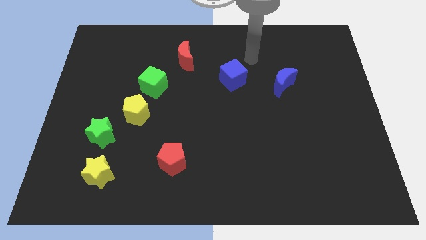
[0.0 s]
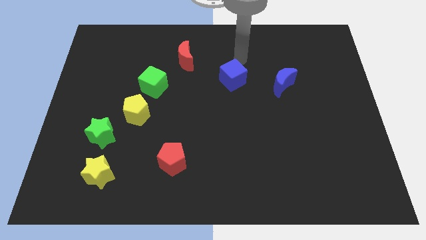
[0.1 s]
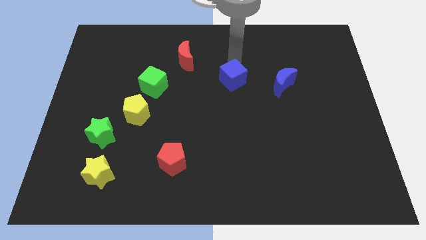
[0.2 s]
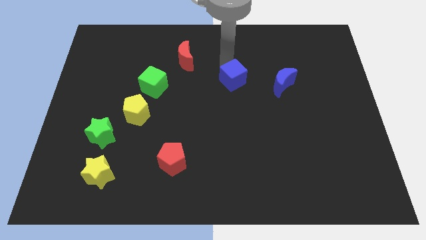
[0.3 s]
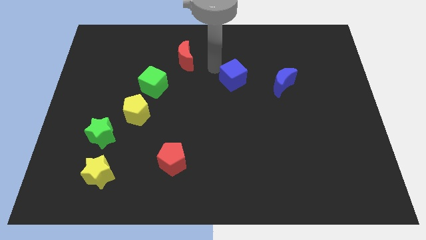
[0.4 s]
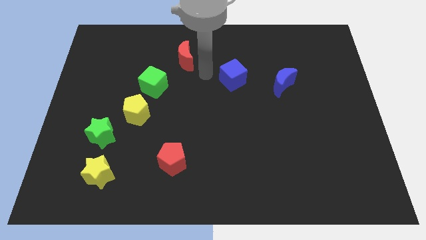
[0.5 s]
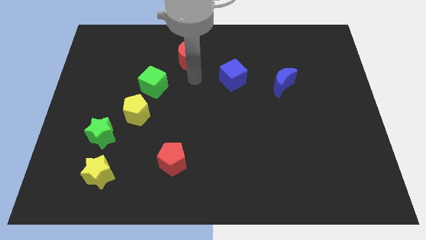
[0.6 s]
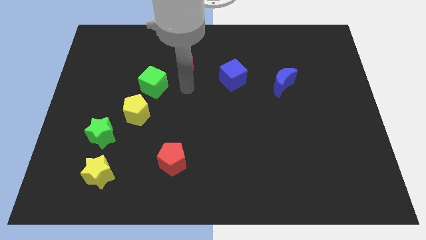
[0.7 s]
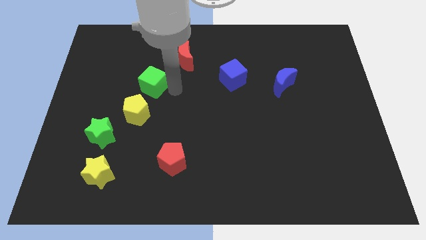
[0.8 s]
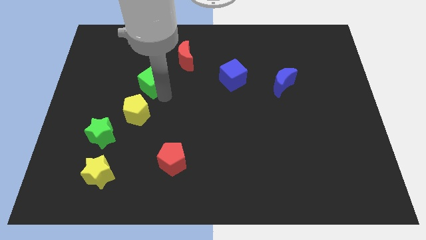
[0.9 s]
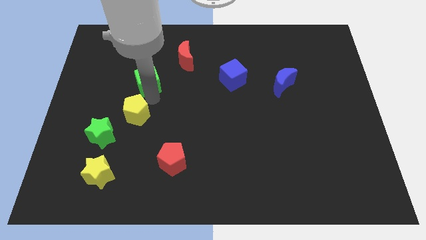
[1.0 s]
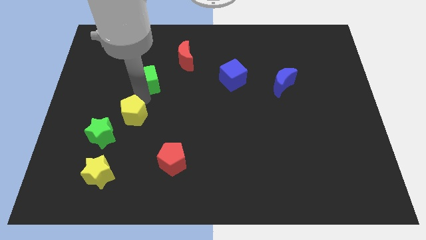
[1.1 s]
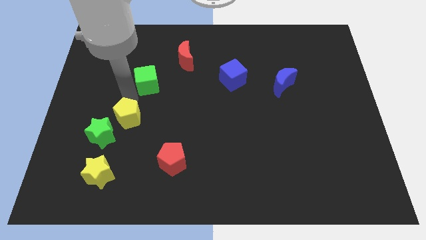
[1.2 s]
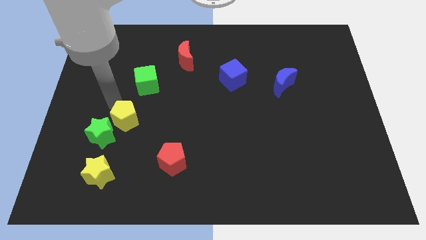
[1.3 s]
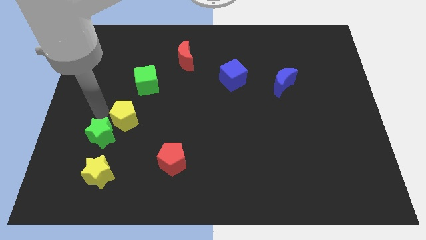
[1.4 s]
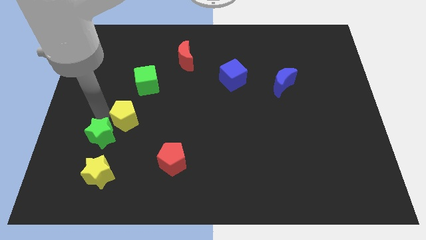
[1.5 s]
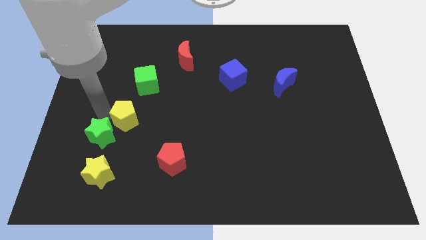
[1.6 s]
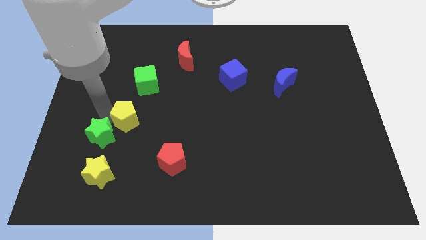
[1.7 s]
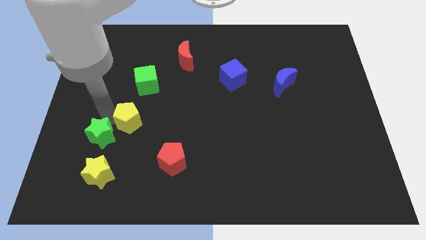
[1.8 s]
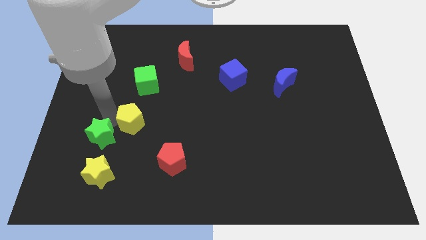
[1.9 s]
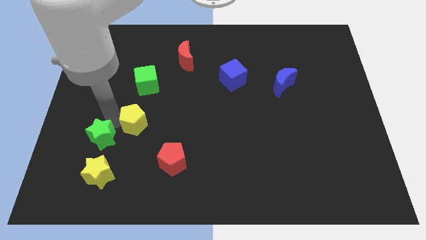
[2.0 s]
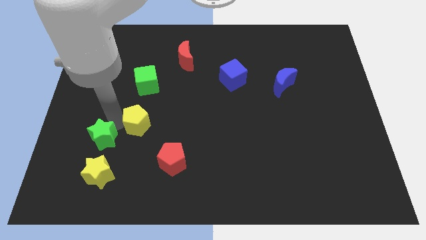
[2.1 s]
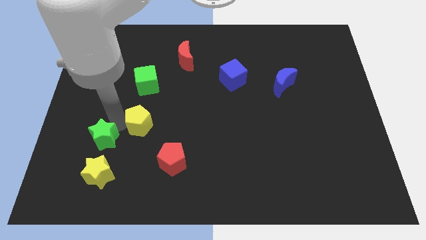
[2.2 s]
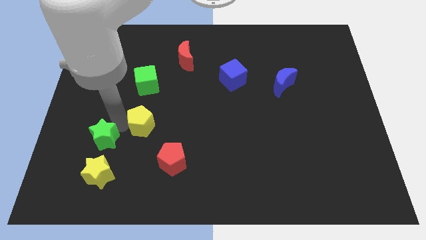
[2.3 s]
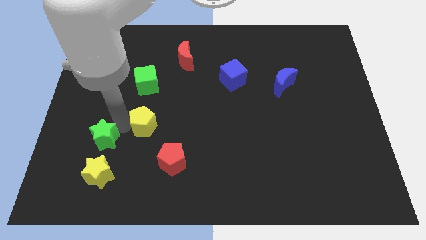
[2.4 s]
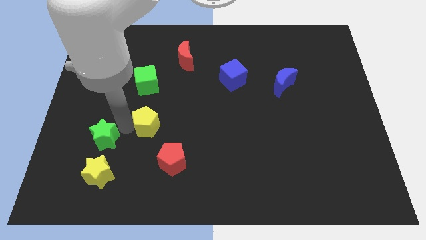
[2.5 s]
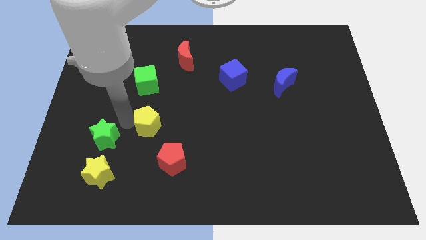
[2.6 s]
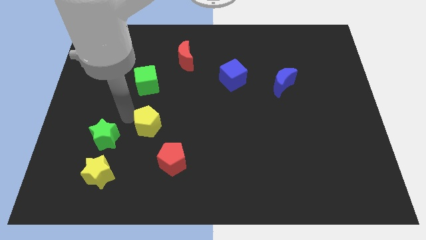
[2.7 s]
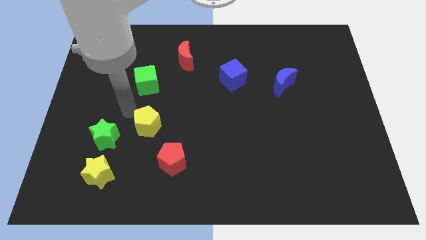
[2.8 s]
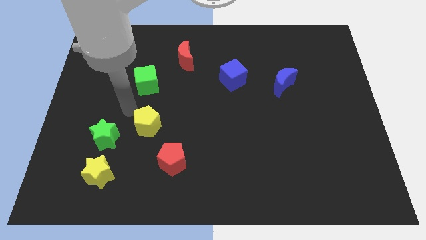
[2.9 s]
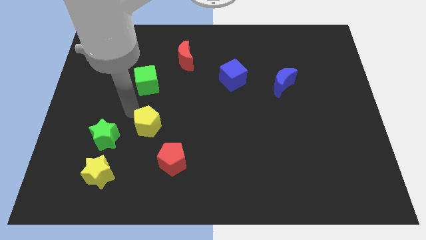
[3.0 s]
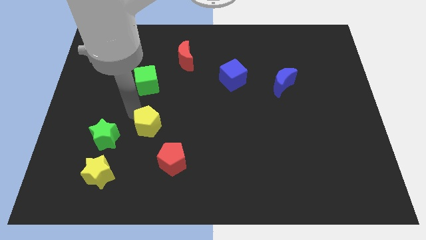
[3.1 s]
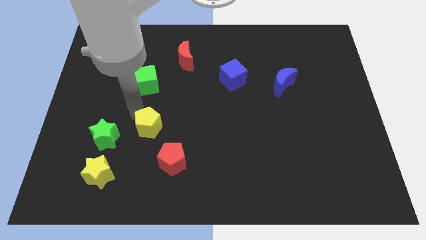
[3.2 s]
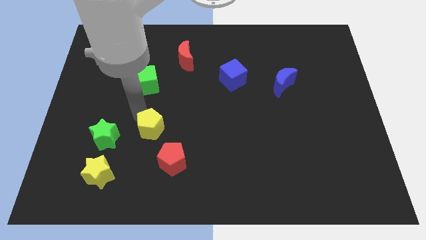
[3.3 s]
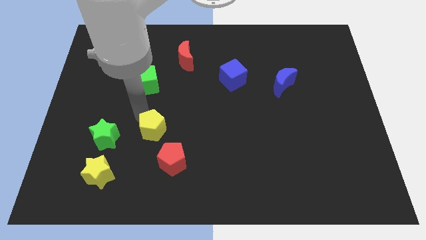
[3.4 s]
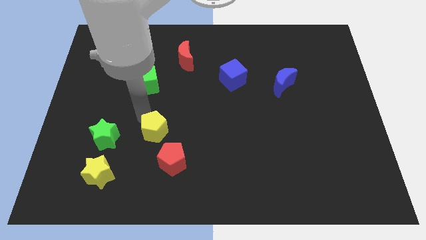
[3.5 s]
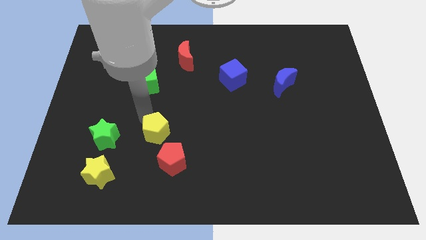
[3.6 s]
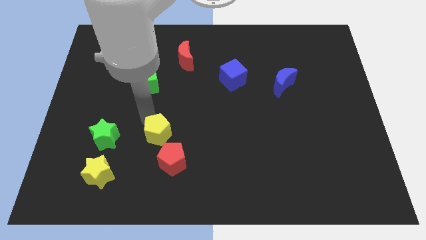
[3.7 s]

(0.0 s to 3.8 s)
separate the yellow pentagon from the green star and green cube

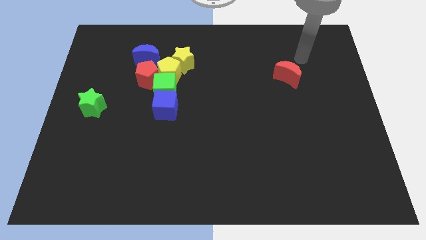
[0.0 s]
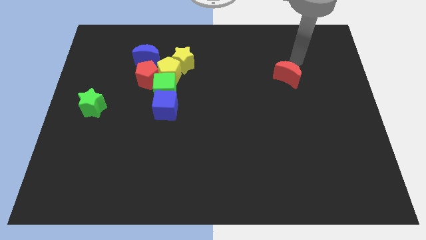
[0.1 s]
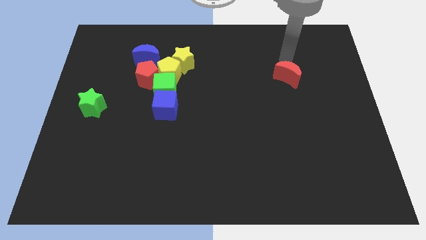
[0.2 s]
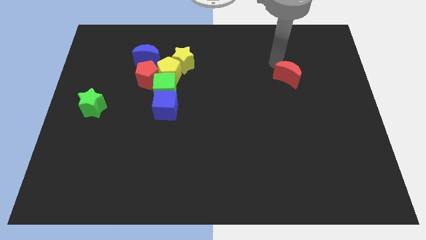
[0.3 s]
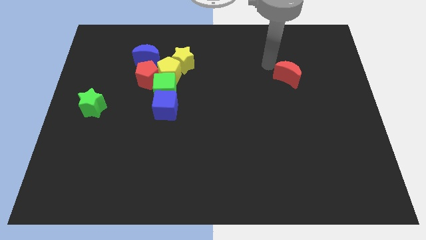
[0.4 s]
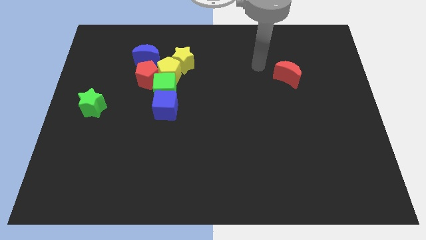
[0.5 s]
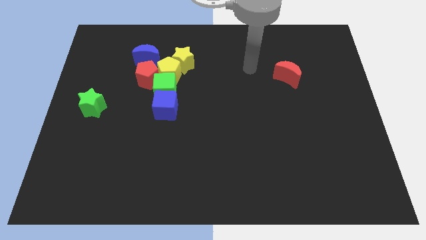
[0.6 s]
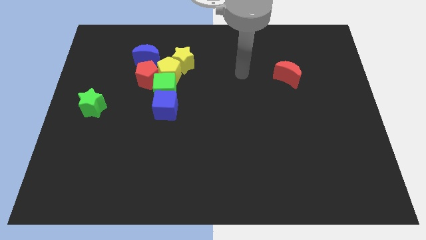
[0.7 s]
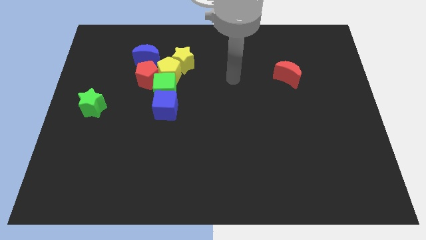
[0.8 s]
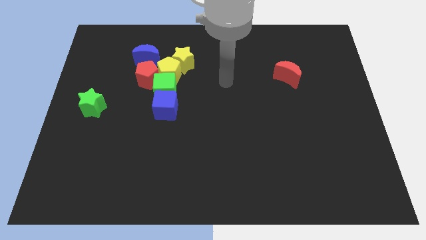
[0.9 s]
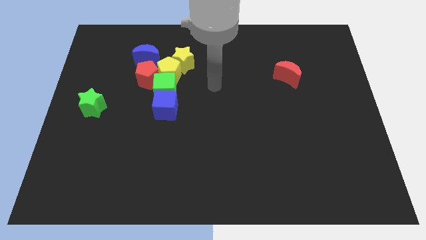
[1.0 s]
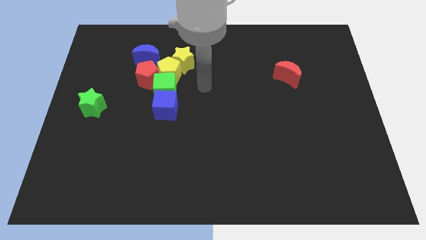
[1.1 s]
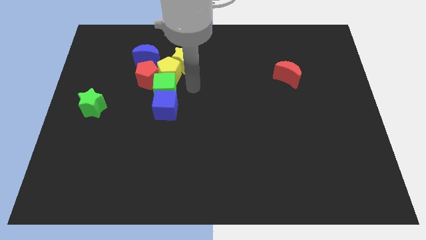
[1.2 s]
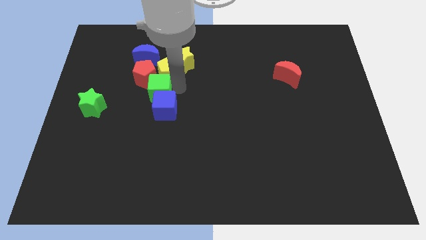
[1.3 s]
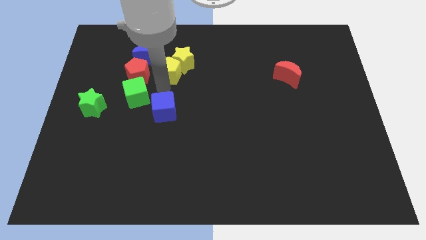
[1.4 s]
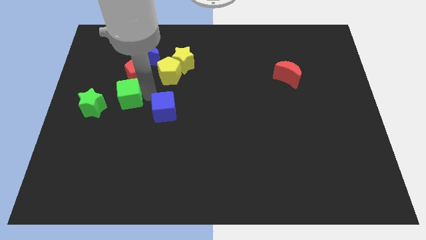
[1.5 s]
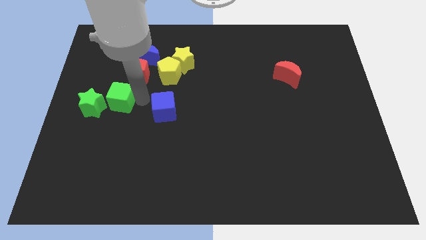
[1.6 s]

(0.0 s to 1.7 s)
move the blue cube away from the green cube

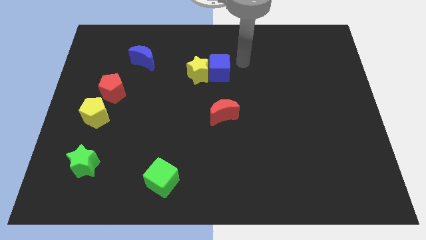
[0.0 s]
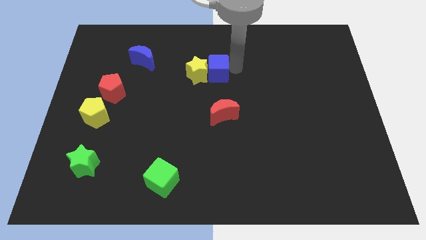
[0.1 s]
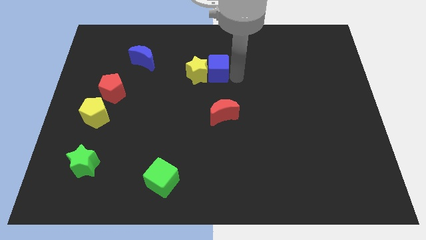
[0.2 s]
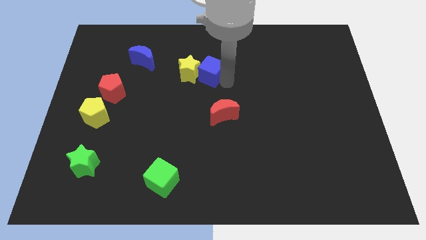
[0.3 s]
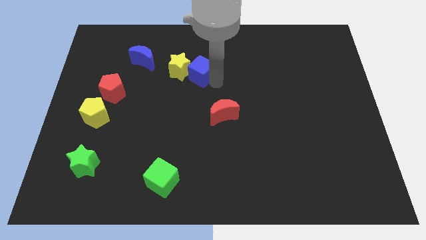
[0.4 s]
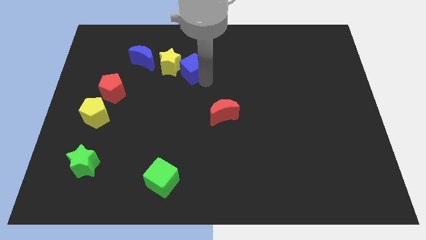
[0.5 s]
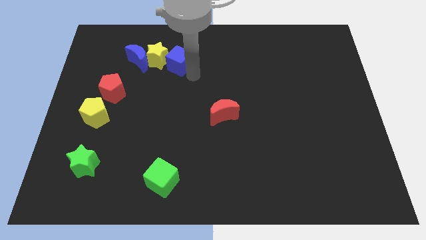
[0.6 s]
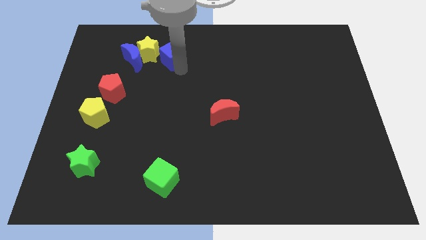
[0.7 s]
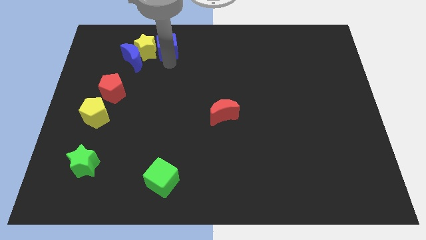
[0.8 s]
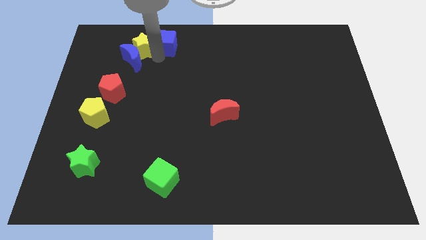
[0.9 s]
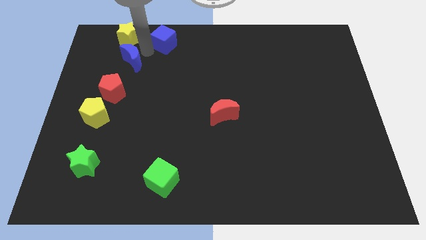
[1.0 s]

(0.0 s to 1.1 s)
move the blue cube away from the yellow star

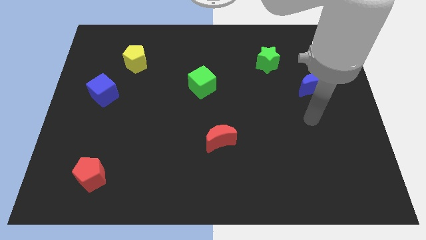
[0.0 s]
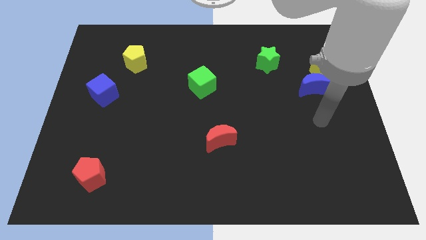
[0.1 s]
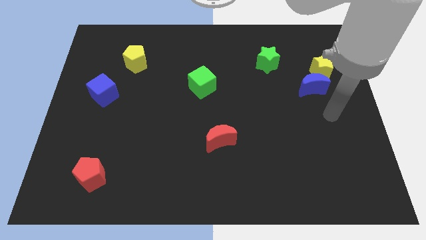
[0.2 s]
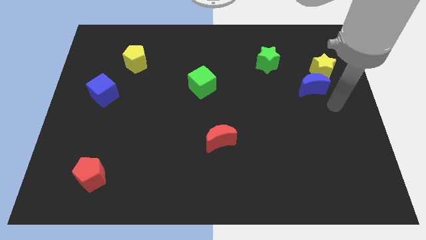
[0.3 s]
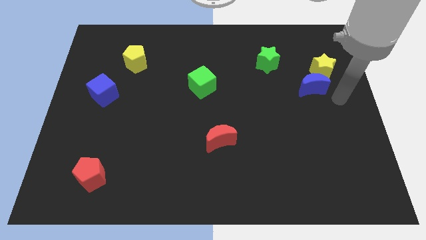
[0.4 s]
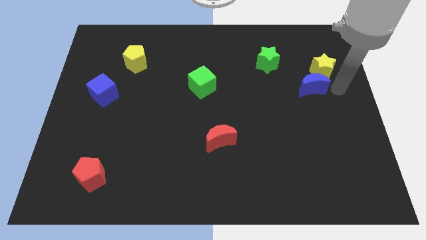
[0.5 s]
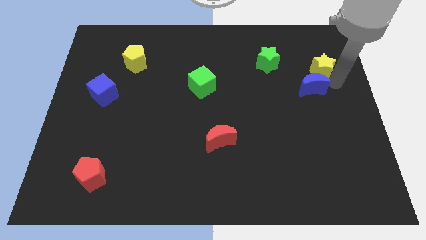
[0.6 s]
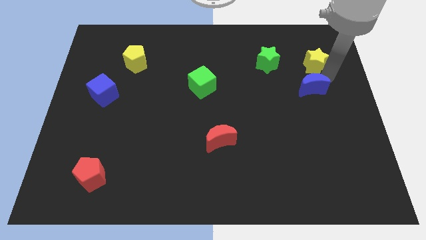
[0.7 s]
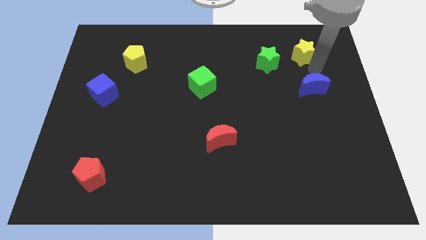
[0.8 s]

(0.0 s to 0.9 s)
move the blue moon away from the yellow star

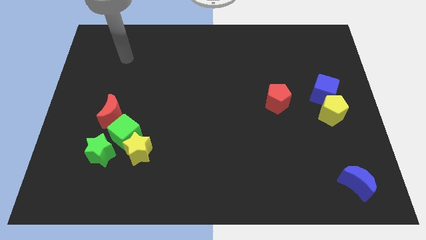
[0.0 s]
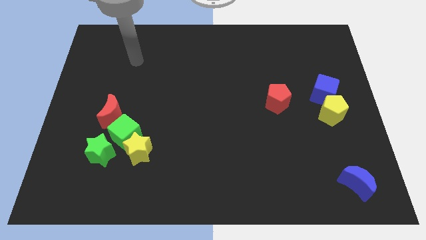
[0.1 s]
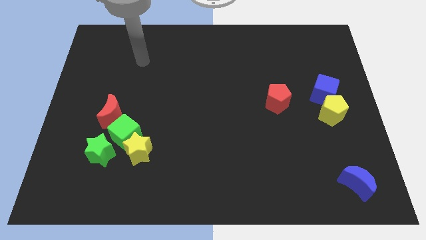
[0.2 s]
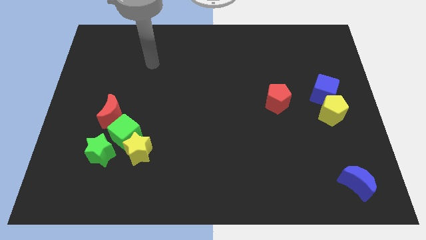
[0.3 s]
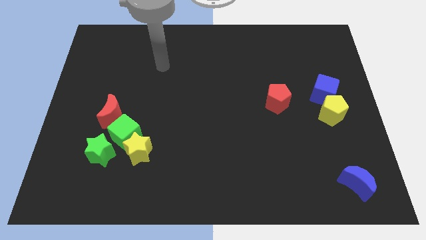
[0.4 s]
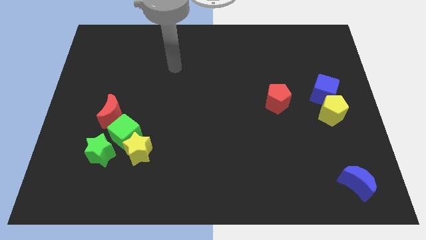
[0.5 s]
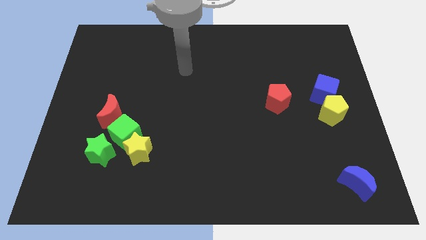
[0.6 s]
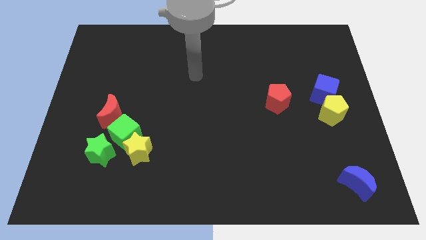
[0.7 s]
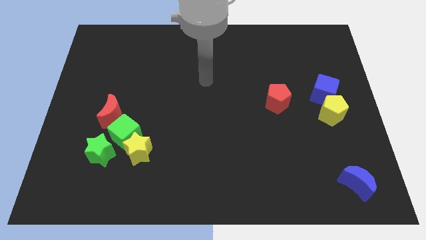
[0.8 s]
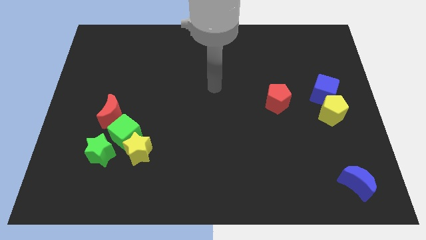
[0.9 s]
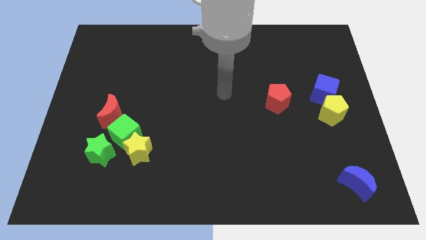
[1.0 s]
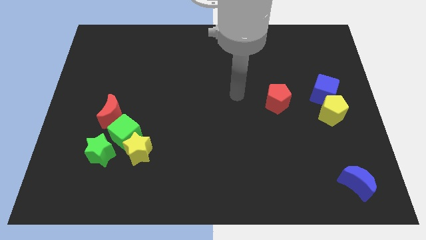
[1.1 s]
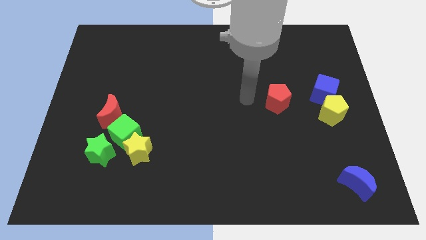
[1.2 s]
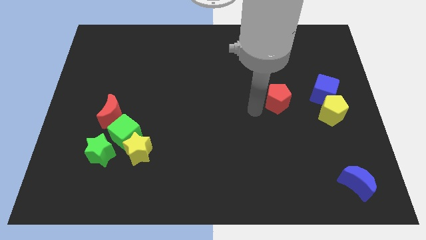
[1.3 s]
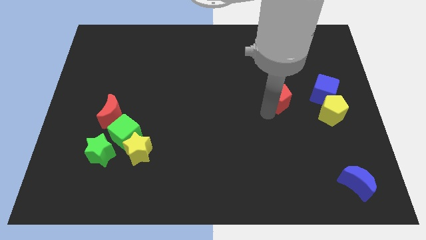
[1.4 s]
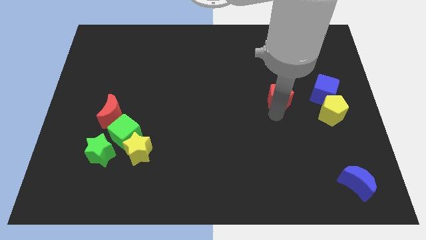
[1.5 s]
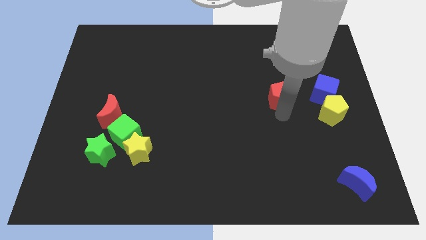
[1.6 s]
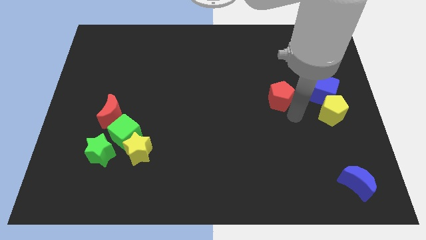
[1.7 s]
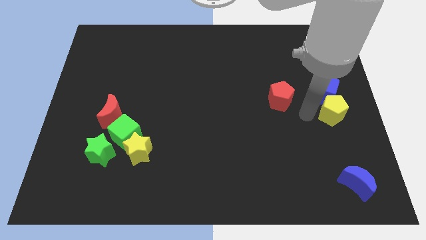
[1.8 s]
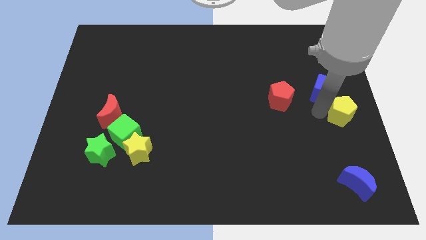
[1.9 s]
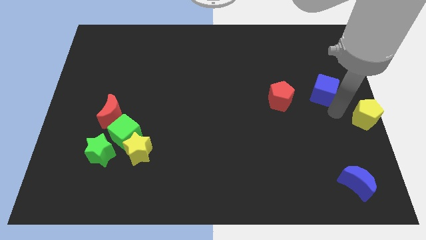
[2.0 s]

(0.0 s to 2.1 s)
separate the blue cube from the yellow pentagon
